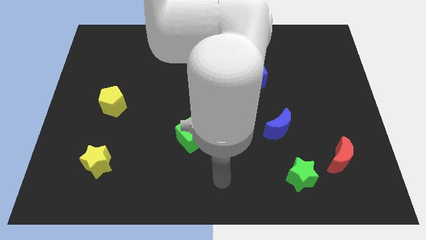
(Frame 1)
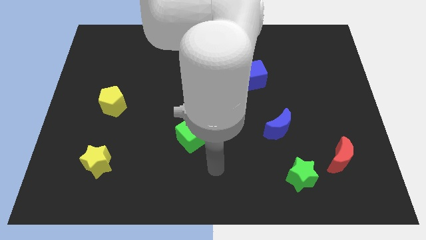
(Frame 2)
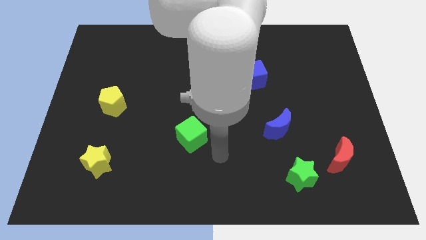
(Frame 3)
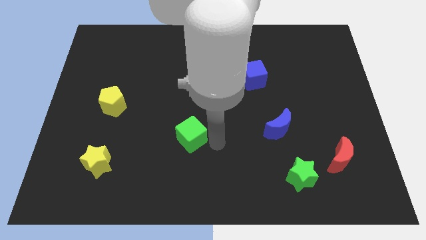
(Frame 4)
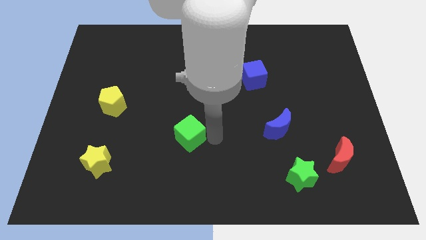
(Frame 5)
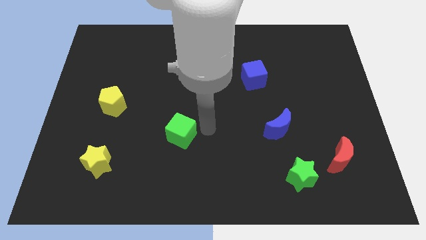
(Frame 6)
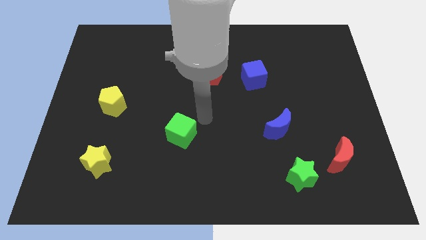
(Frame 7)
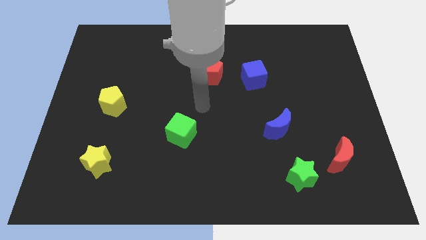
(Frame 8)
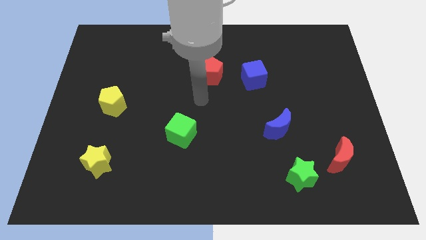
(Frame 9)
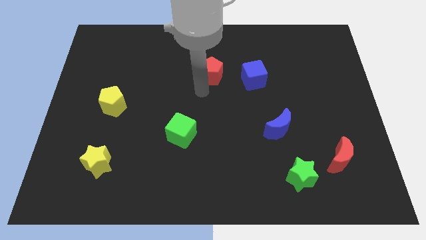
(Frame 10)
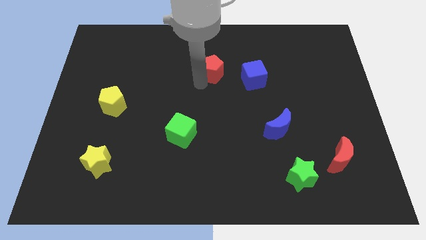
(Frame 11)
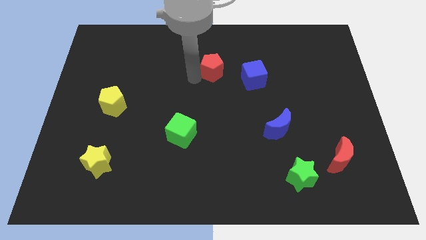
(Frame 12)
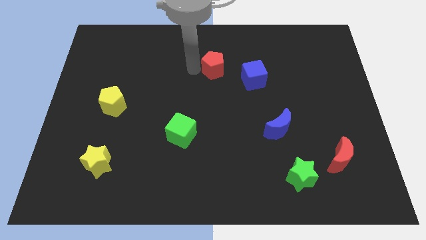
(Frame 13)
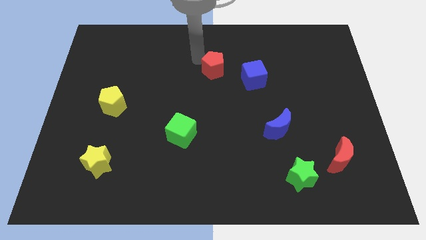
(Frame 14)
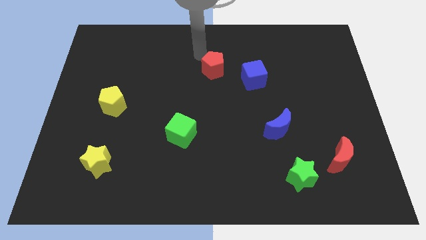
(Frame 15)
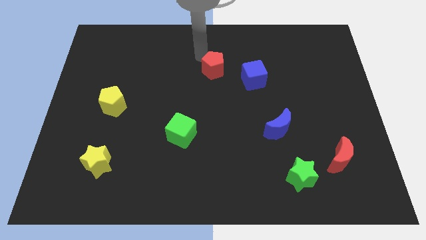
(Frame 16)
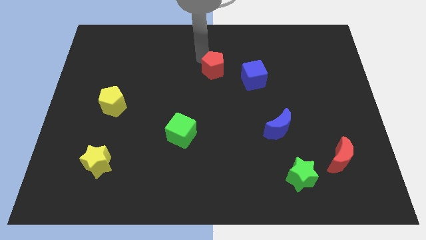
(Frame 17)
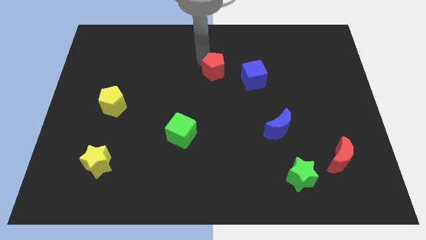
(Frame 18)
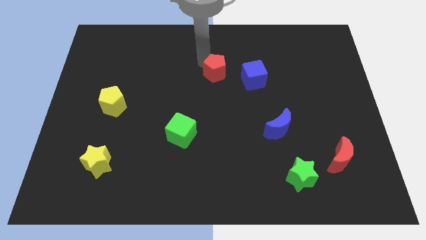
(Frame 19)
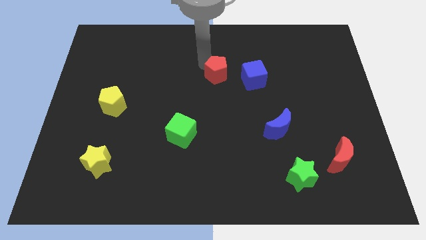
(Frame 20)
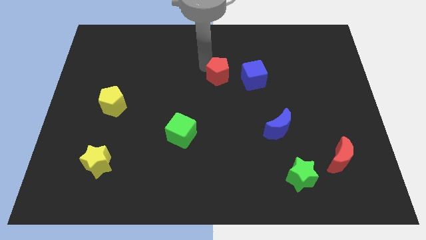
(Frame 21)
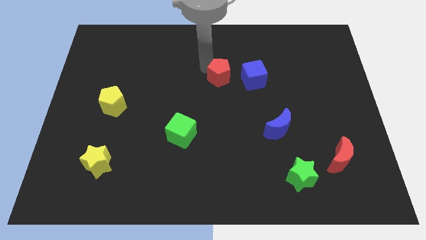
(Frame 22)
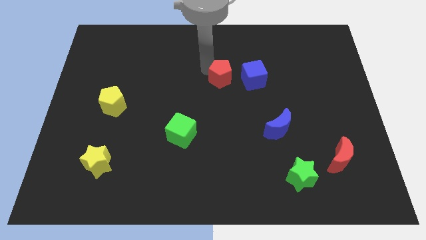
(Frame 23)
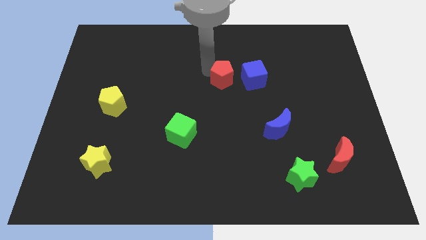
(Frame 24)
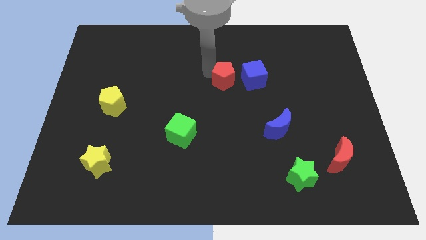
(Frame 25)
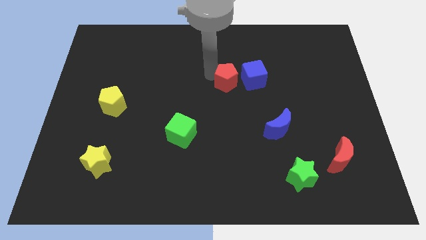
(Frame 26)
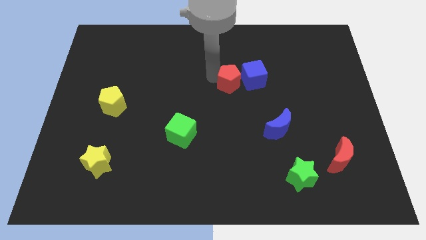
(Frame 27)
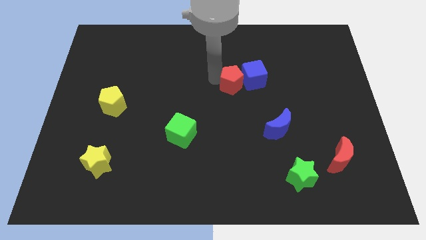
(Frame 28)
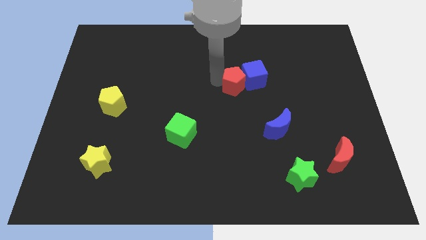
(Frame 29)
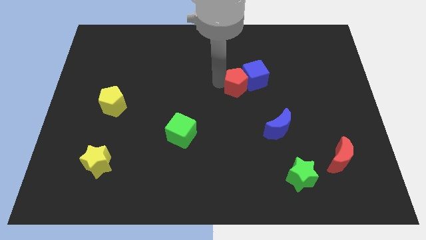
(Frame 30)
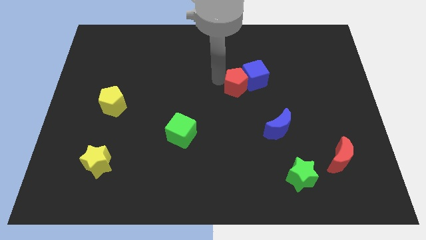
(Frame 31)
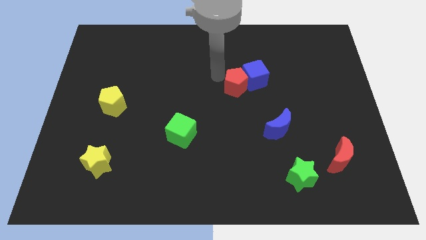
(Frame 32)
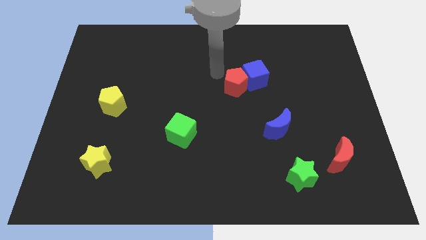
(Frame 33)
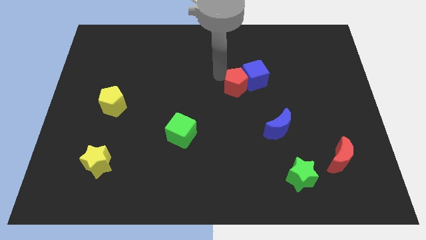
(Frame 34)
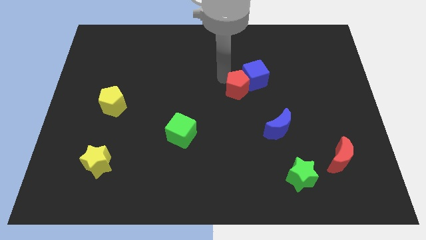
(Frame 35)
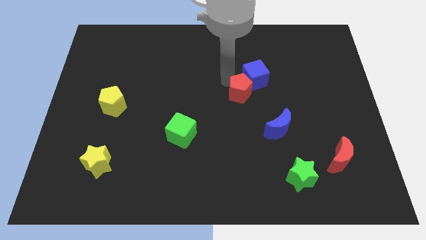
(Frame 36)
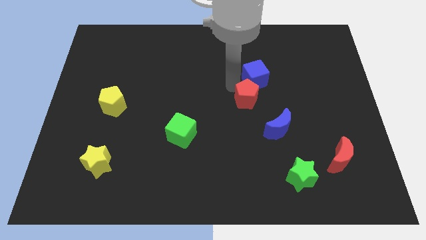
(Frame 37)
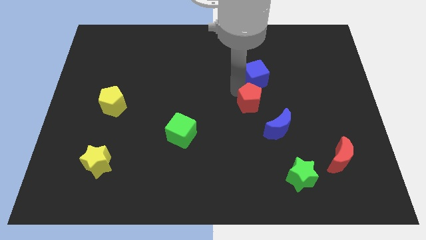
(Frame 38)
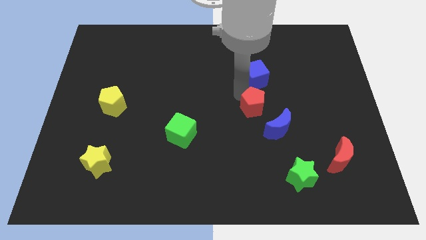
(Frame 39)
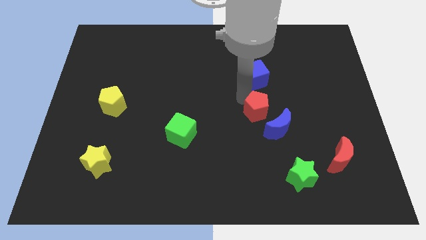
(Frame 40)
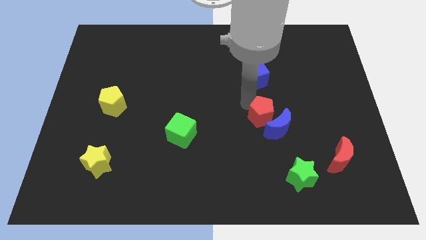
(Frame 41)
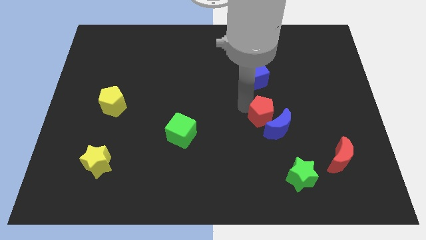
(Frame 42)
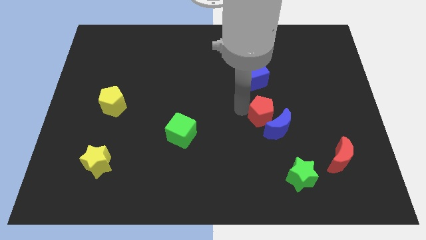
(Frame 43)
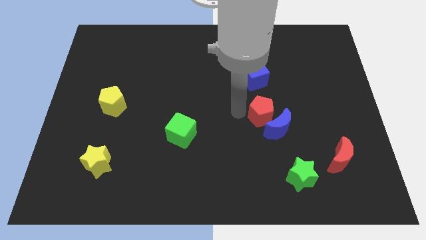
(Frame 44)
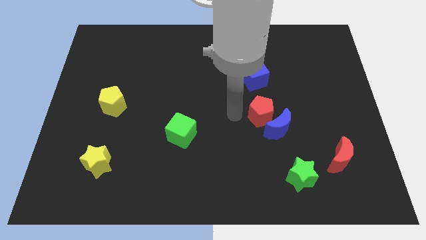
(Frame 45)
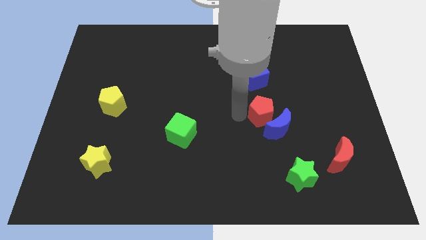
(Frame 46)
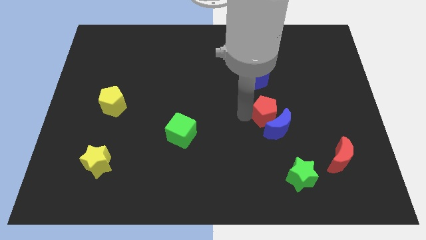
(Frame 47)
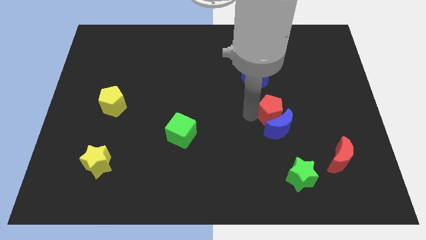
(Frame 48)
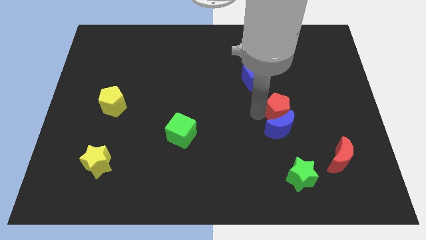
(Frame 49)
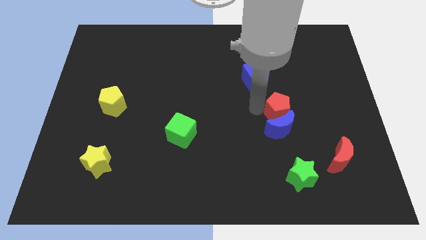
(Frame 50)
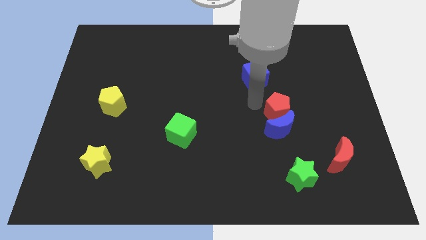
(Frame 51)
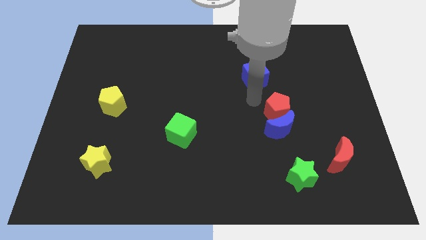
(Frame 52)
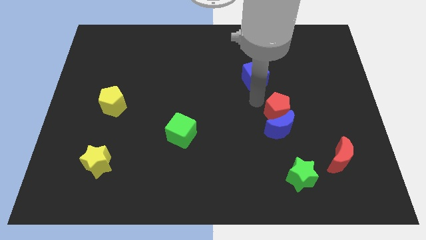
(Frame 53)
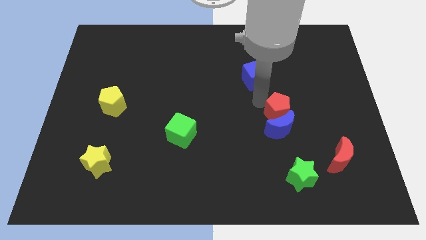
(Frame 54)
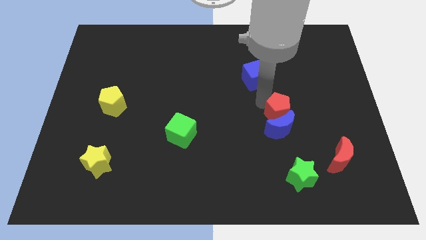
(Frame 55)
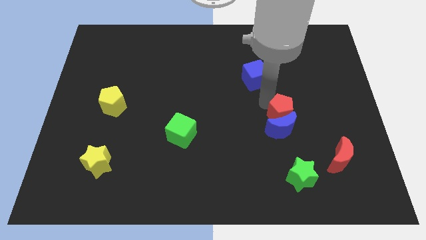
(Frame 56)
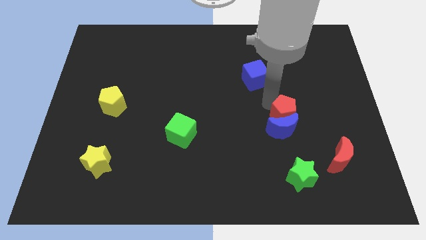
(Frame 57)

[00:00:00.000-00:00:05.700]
move the red pentagon downwards and right

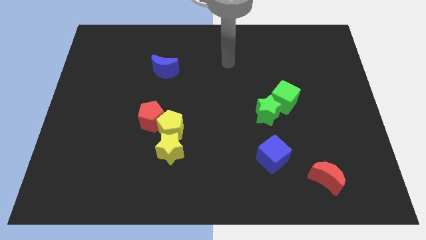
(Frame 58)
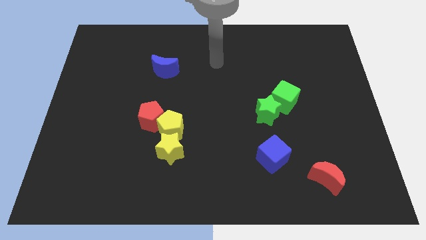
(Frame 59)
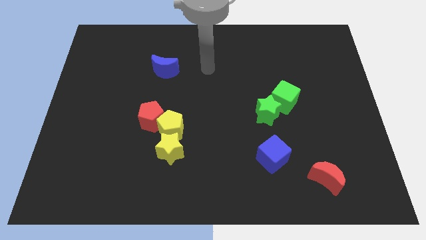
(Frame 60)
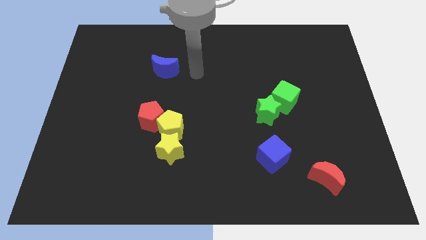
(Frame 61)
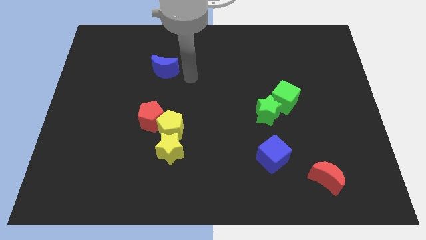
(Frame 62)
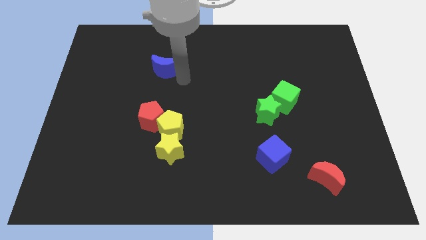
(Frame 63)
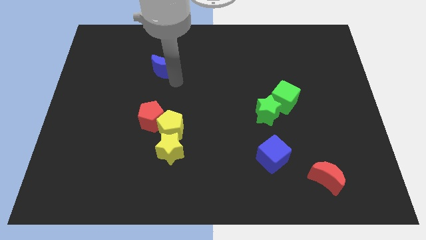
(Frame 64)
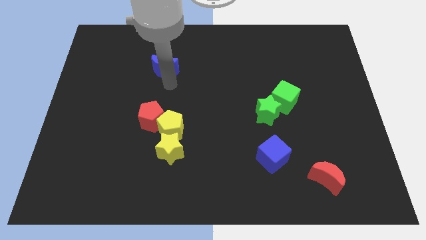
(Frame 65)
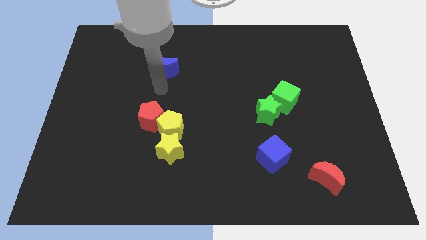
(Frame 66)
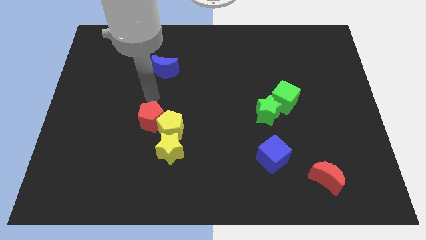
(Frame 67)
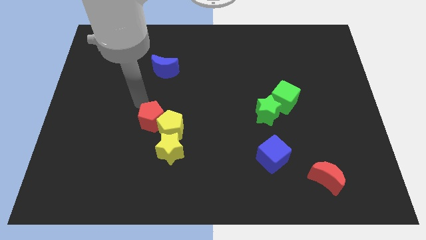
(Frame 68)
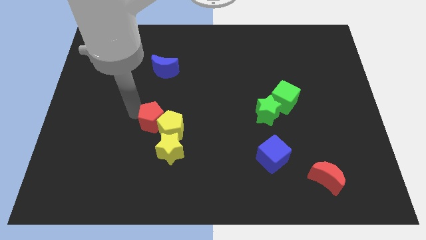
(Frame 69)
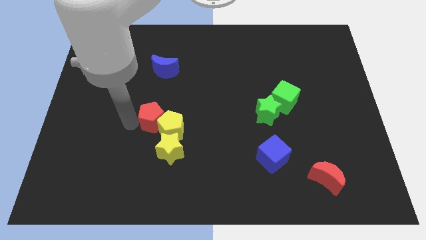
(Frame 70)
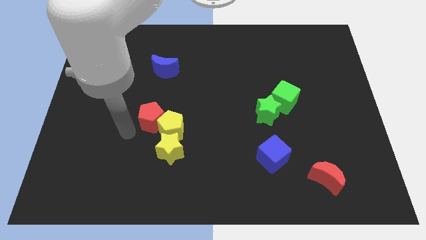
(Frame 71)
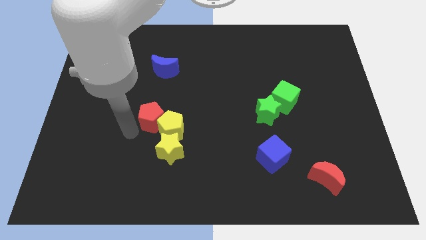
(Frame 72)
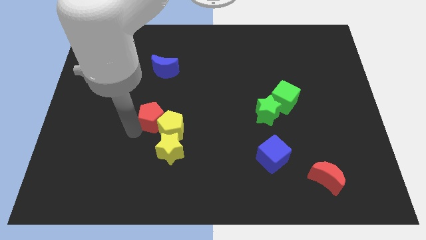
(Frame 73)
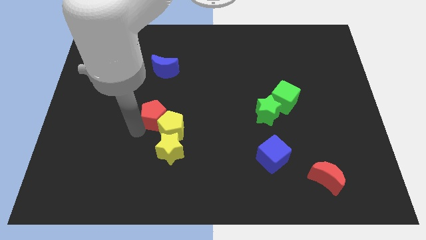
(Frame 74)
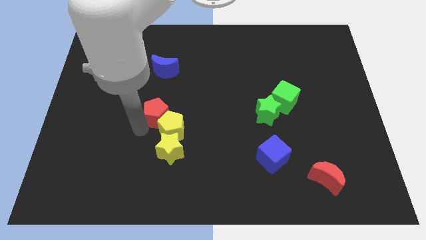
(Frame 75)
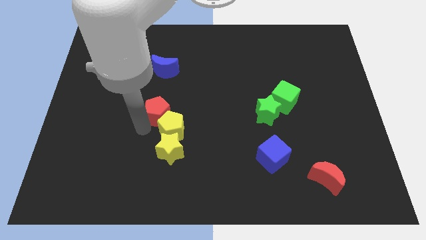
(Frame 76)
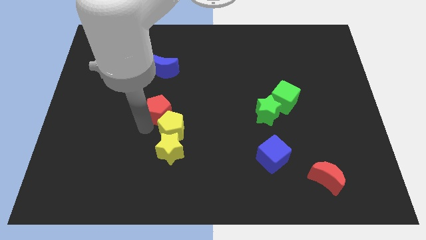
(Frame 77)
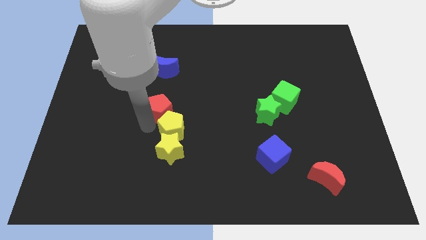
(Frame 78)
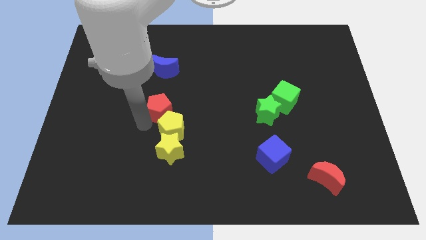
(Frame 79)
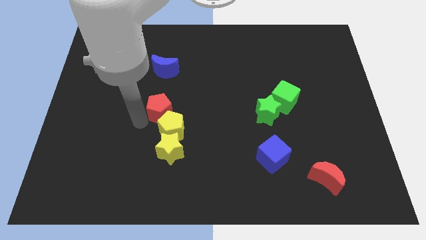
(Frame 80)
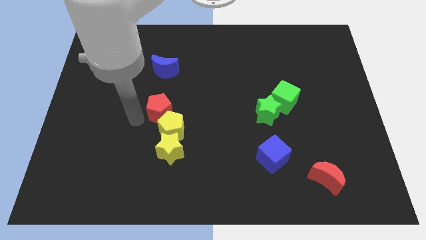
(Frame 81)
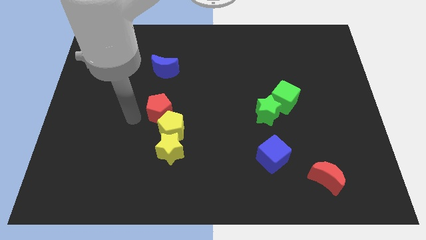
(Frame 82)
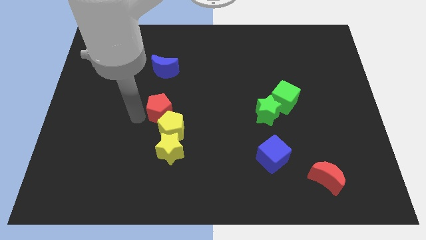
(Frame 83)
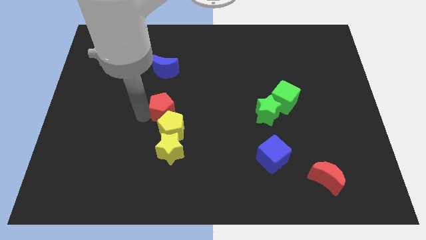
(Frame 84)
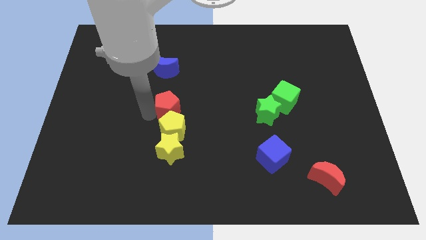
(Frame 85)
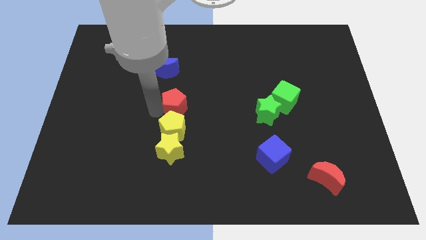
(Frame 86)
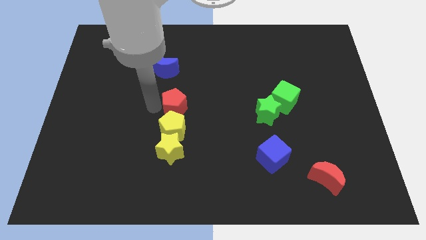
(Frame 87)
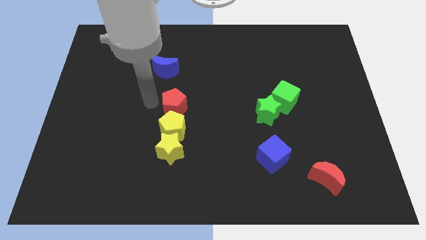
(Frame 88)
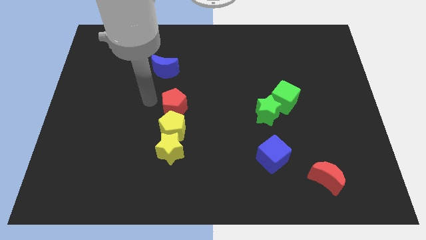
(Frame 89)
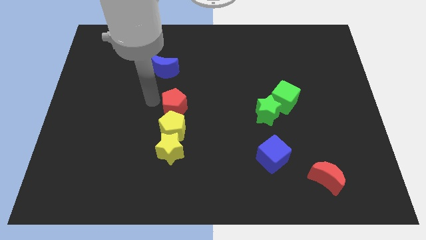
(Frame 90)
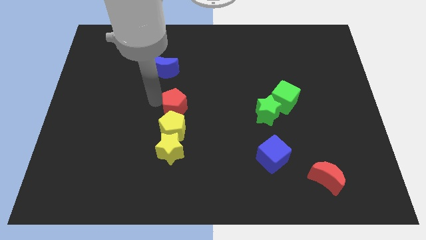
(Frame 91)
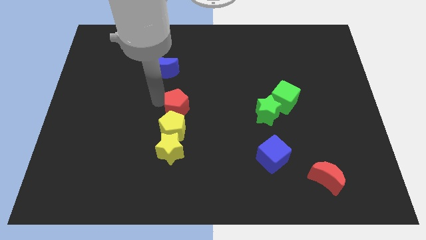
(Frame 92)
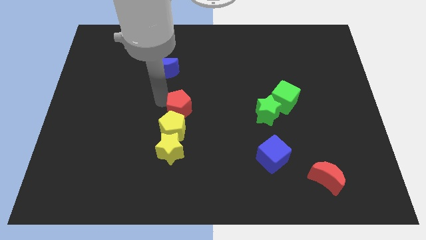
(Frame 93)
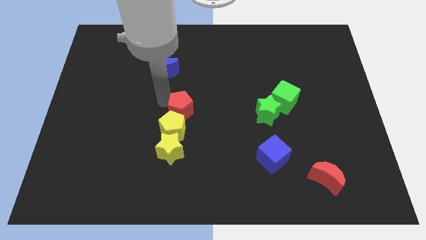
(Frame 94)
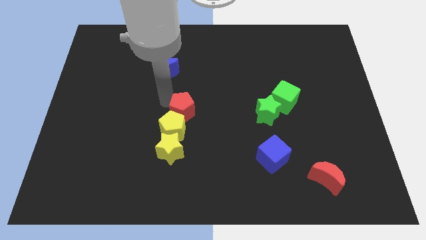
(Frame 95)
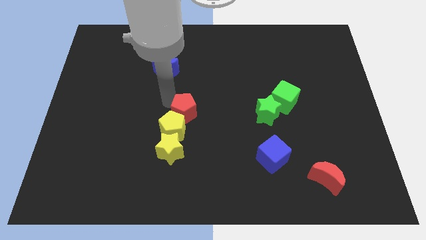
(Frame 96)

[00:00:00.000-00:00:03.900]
slide the red pentagon a little right
